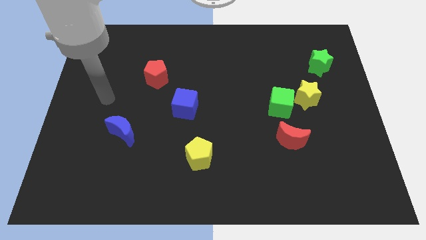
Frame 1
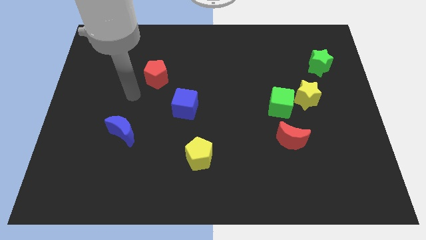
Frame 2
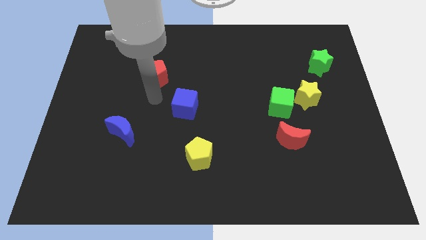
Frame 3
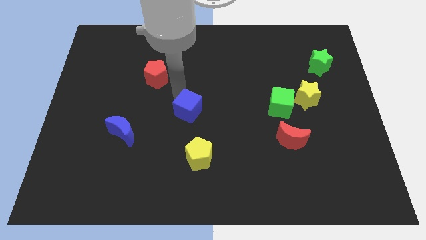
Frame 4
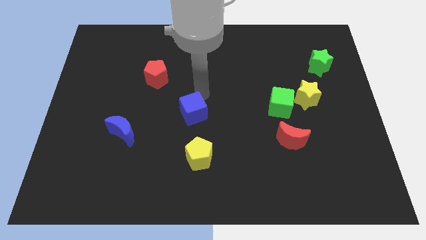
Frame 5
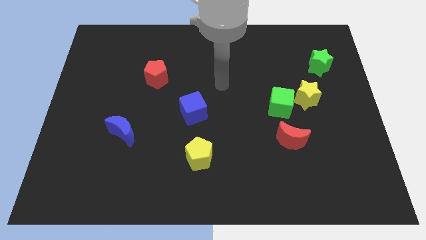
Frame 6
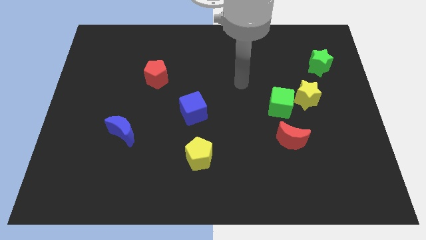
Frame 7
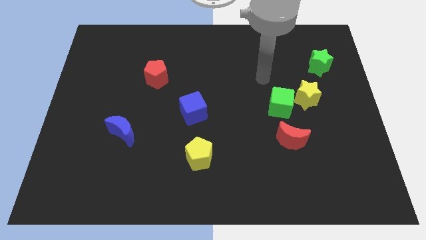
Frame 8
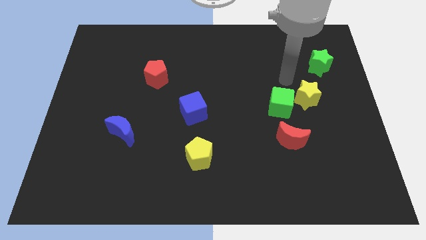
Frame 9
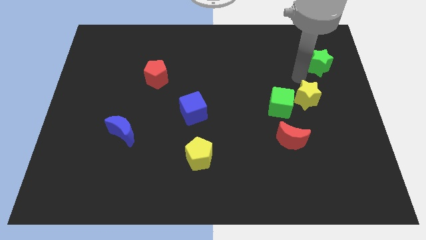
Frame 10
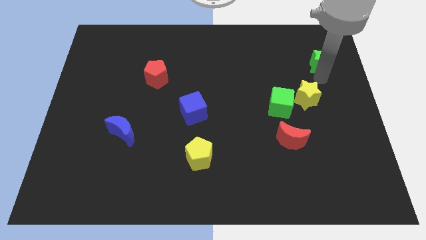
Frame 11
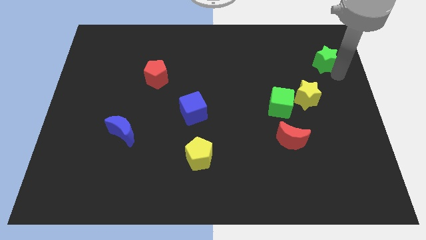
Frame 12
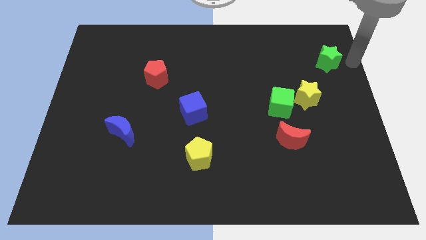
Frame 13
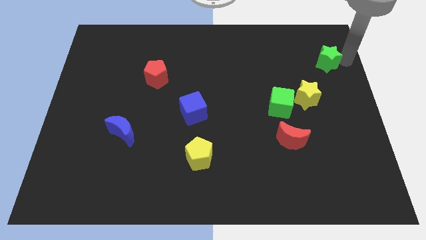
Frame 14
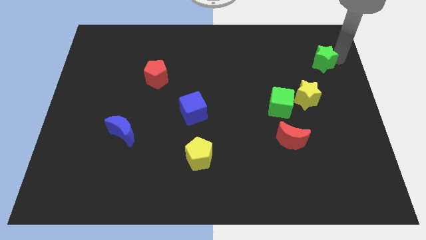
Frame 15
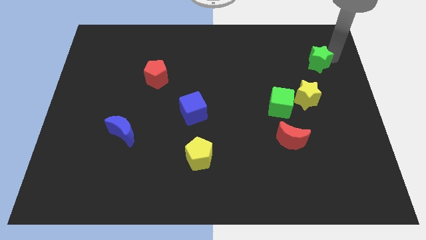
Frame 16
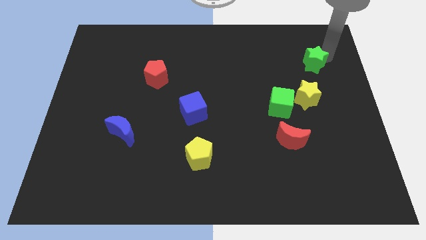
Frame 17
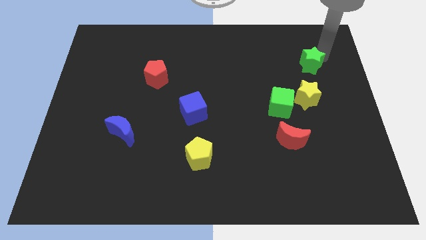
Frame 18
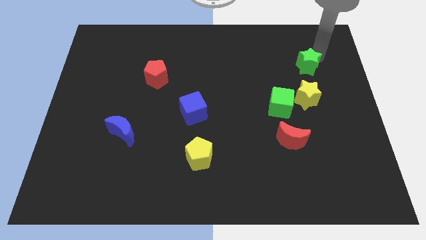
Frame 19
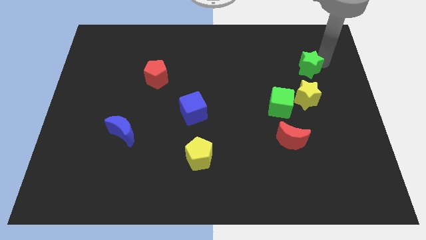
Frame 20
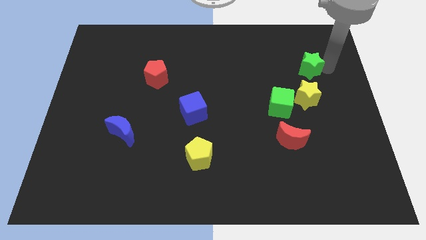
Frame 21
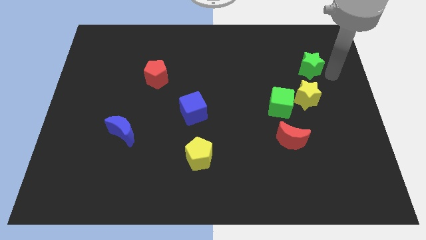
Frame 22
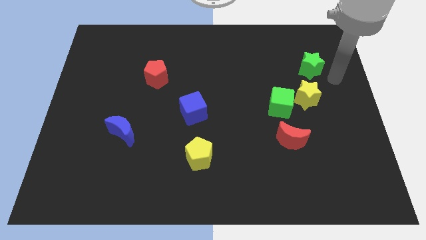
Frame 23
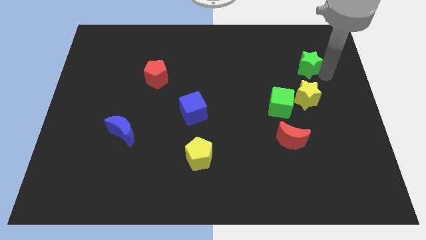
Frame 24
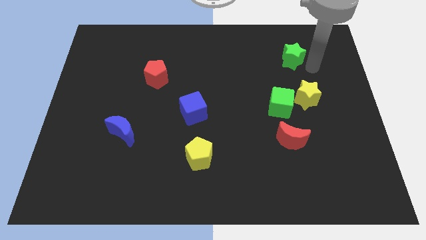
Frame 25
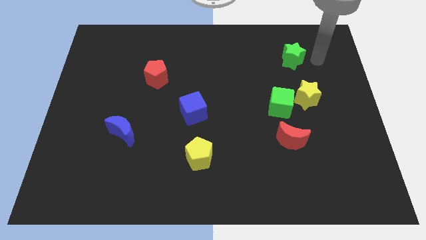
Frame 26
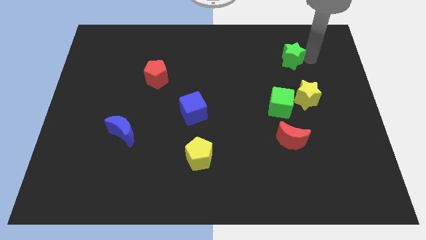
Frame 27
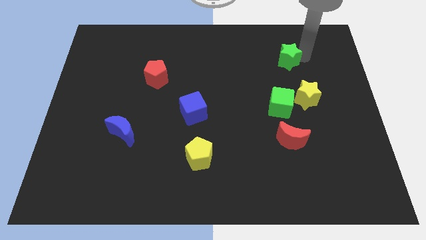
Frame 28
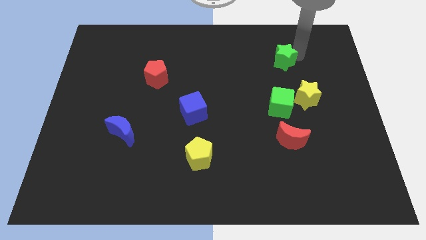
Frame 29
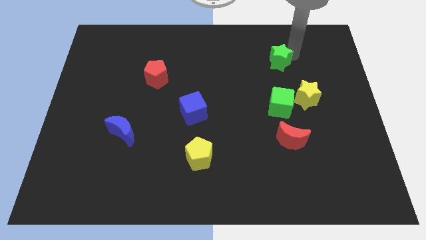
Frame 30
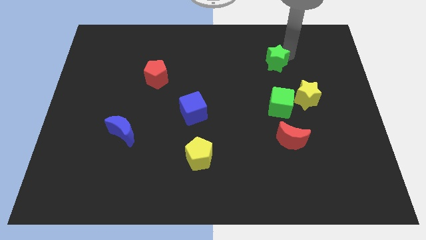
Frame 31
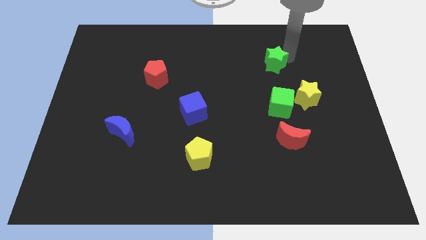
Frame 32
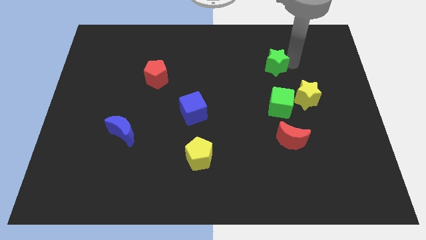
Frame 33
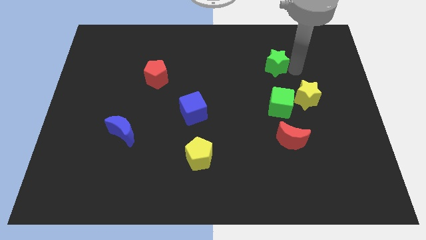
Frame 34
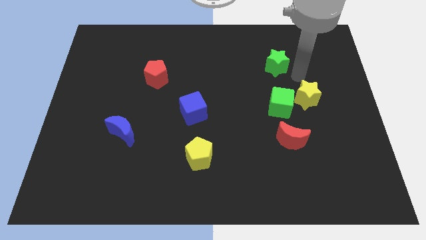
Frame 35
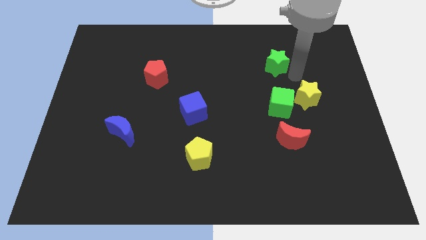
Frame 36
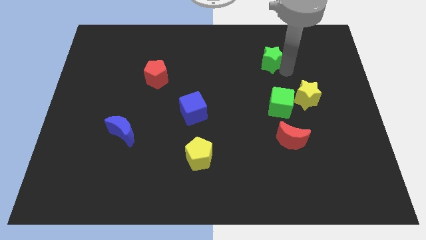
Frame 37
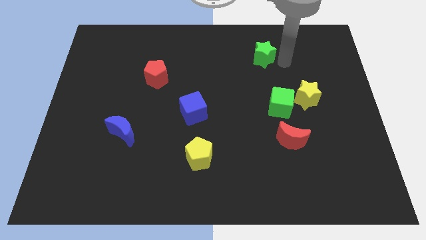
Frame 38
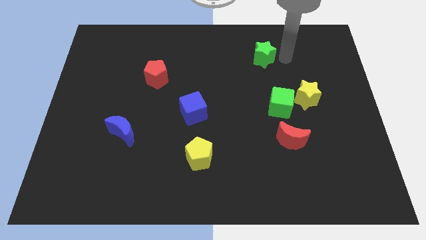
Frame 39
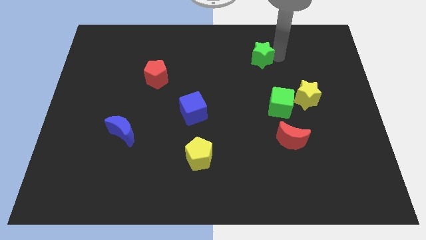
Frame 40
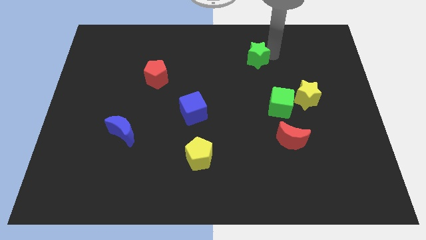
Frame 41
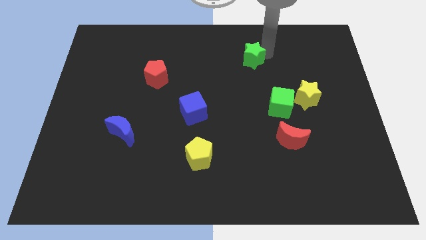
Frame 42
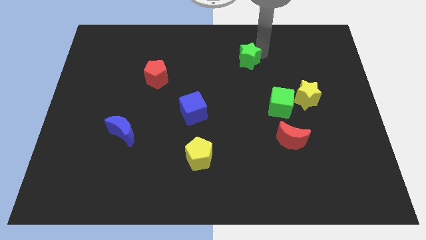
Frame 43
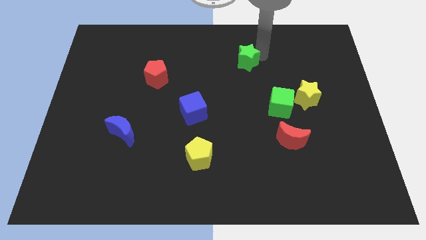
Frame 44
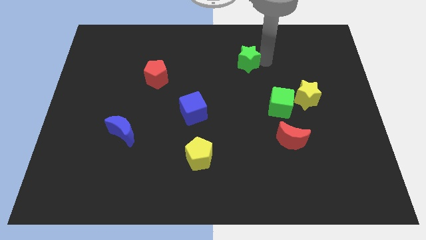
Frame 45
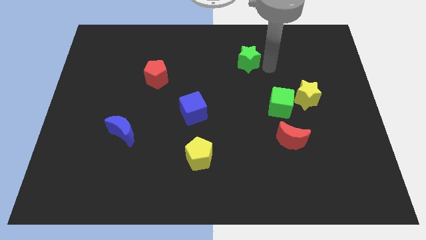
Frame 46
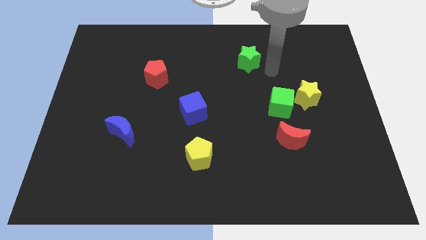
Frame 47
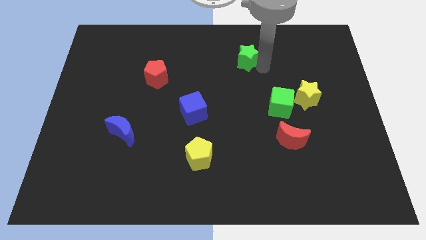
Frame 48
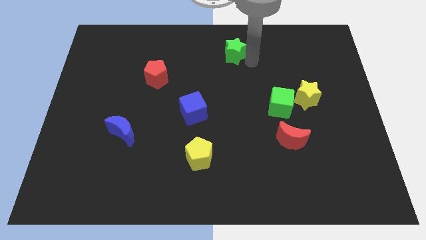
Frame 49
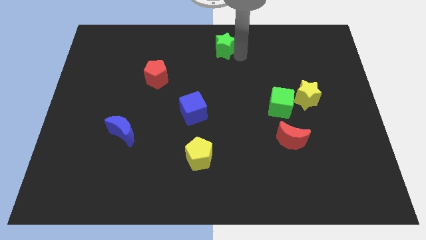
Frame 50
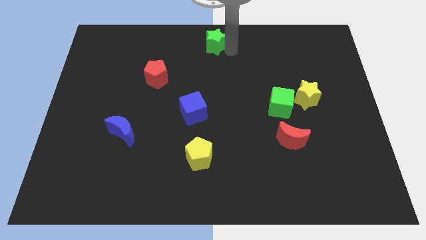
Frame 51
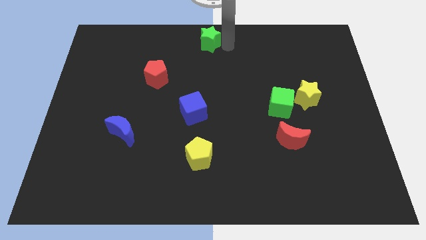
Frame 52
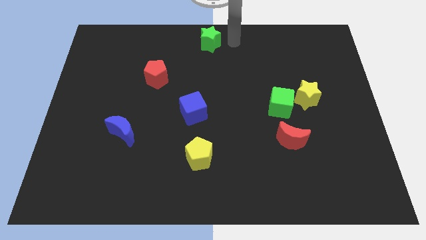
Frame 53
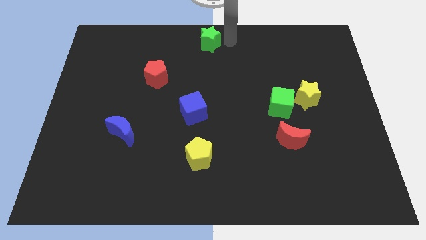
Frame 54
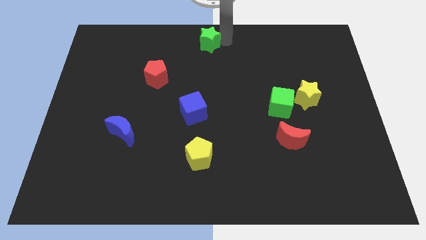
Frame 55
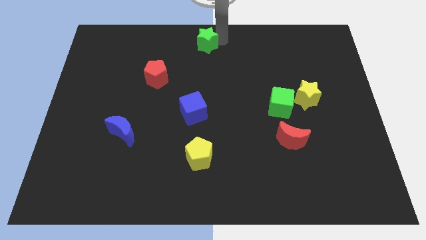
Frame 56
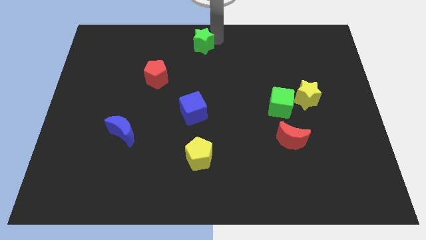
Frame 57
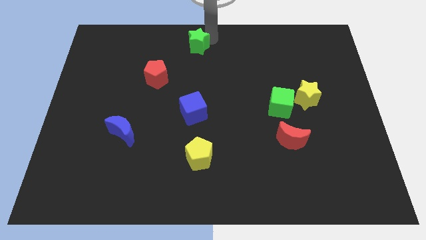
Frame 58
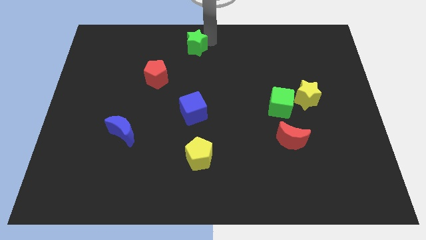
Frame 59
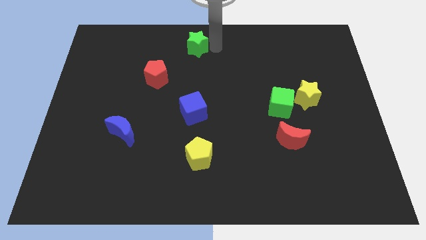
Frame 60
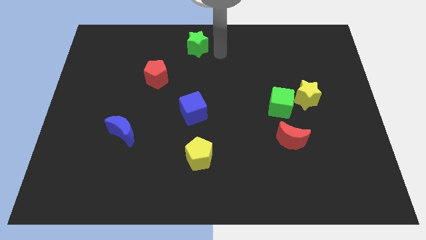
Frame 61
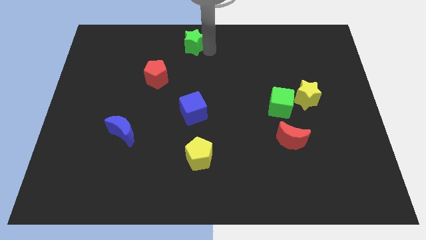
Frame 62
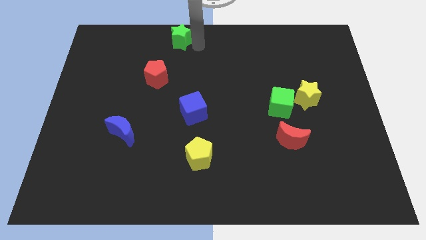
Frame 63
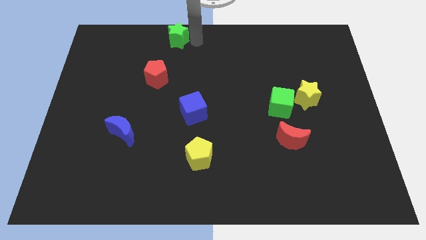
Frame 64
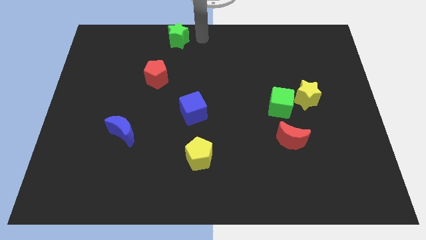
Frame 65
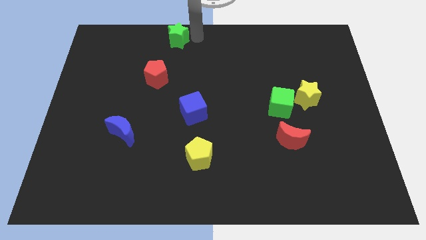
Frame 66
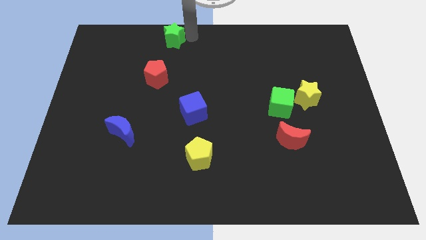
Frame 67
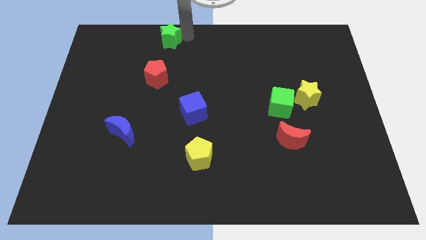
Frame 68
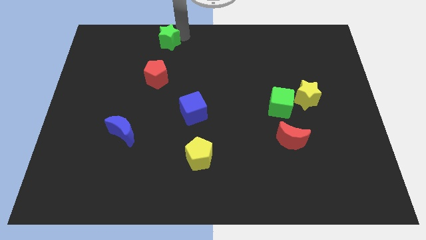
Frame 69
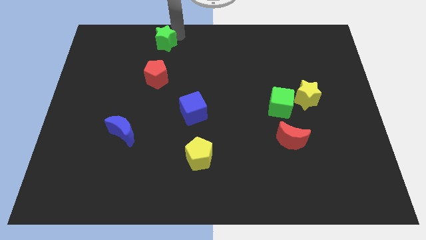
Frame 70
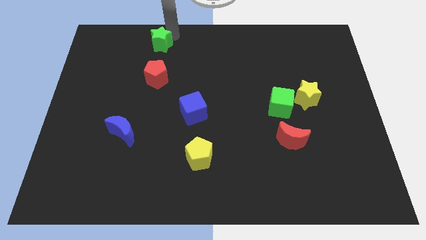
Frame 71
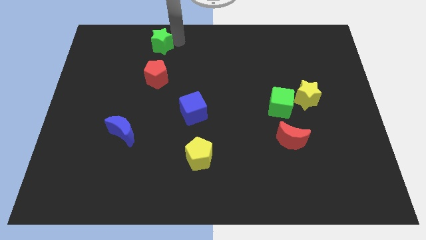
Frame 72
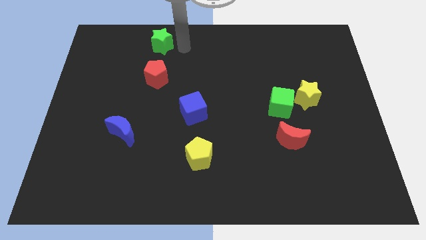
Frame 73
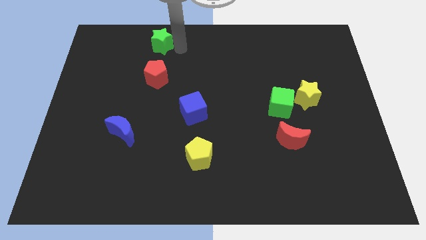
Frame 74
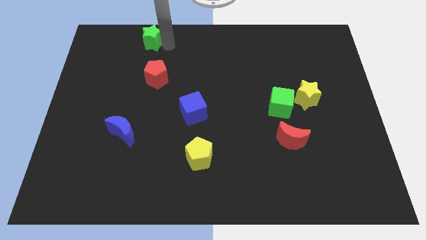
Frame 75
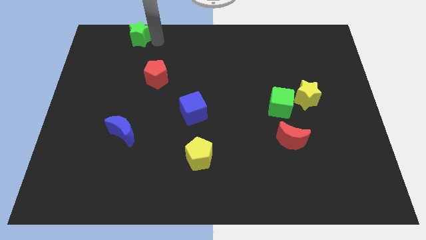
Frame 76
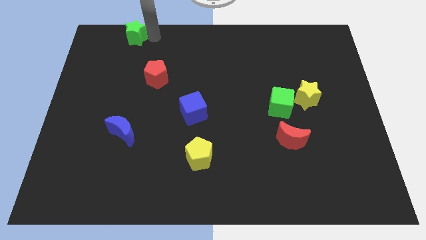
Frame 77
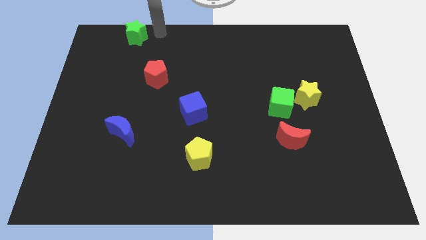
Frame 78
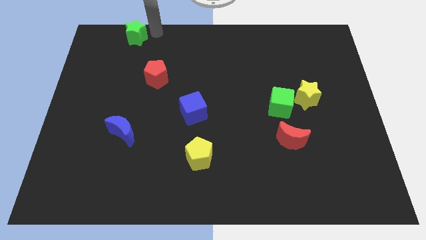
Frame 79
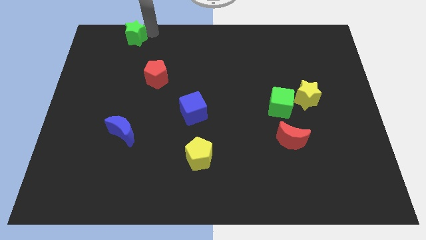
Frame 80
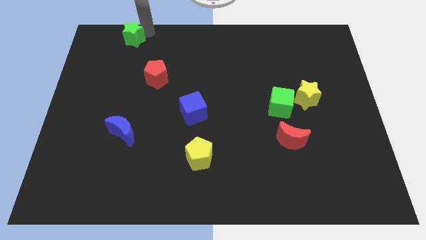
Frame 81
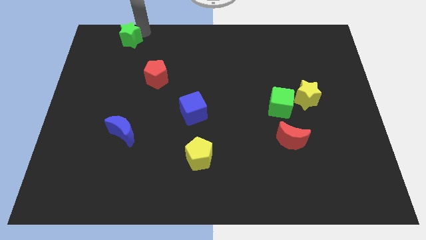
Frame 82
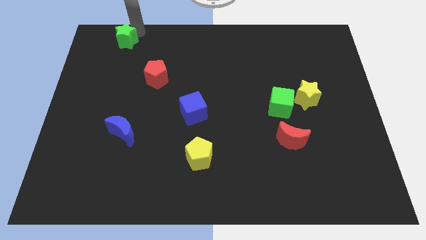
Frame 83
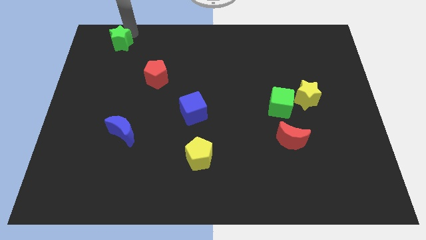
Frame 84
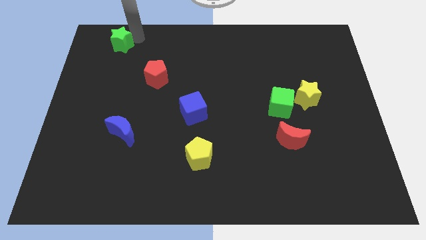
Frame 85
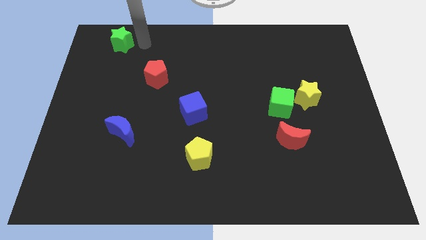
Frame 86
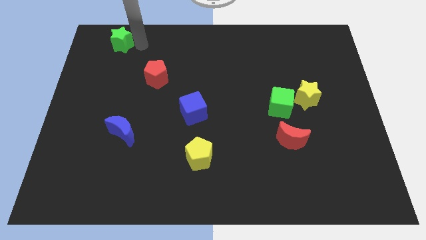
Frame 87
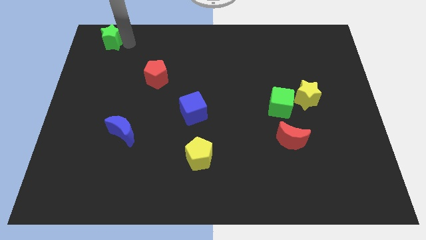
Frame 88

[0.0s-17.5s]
push the green star to the top left
